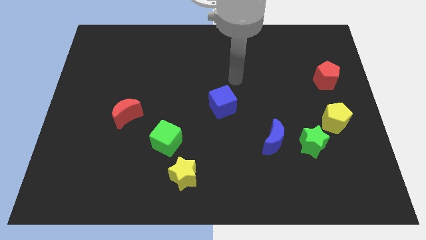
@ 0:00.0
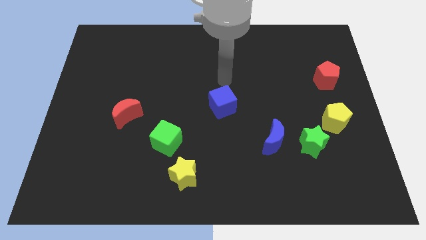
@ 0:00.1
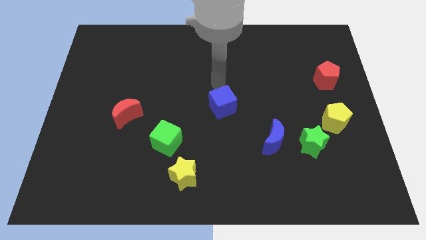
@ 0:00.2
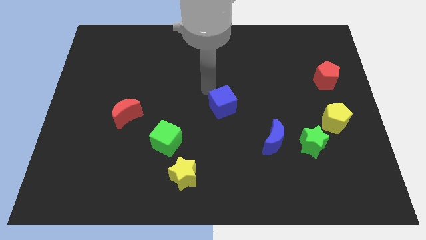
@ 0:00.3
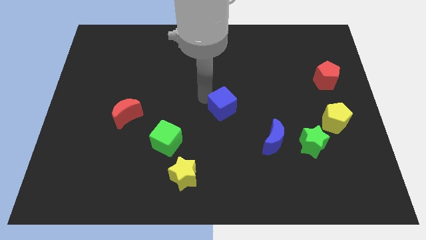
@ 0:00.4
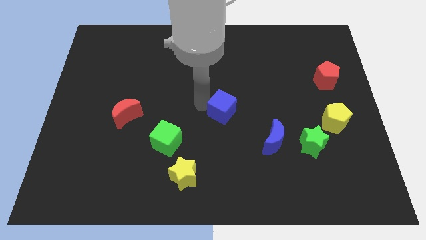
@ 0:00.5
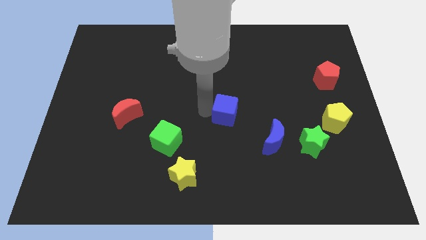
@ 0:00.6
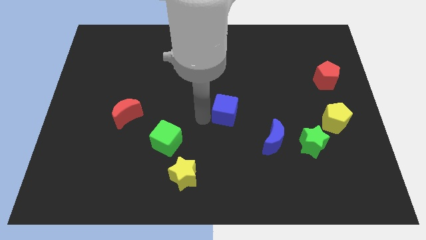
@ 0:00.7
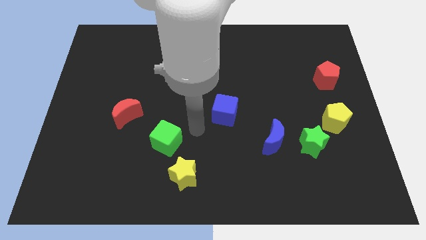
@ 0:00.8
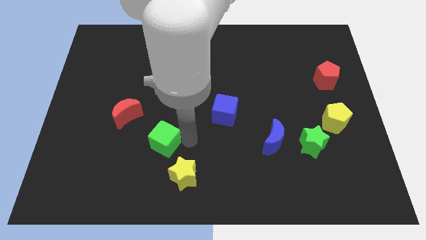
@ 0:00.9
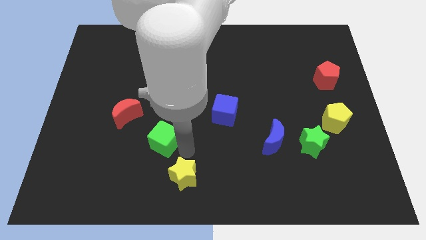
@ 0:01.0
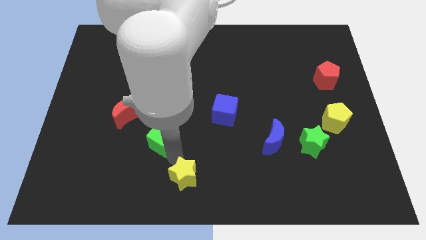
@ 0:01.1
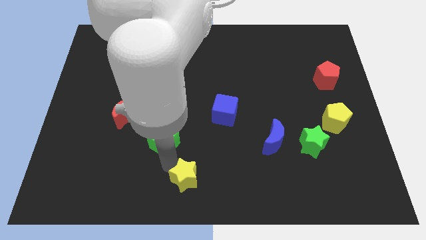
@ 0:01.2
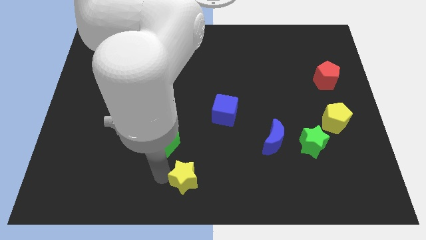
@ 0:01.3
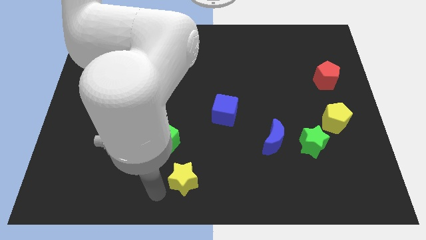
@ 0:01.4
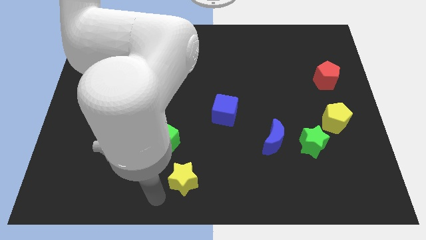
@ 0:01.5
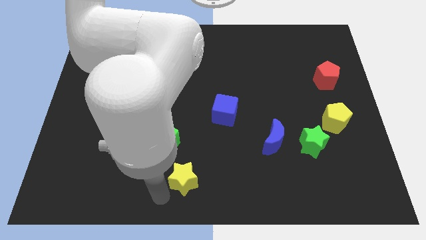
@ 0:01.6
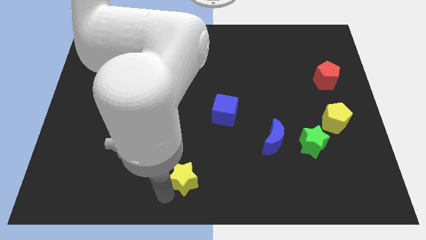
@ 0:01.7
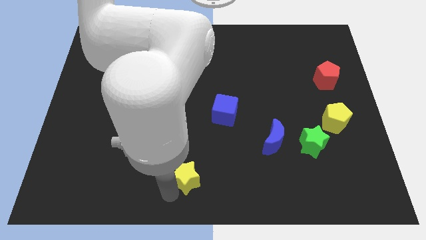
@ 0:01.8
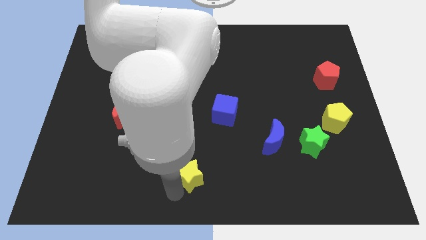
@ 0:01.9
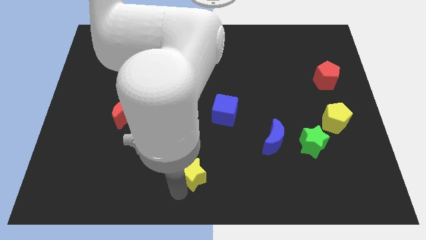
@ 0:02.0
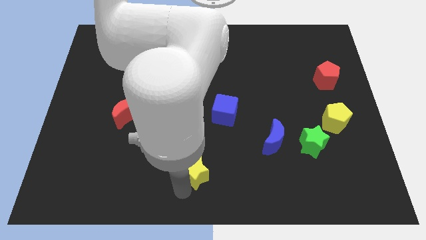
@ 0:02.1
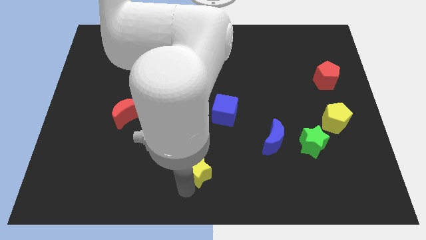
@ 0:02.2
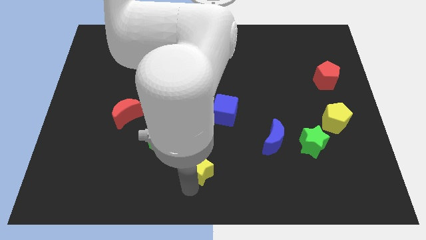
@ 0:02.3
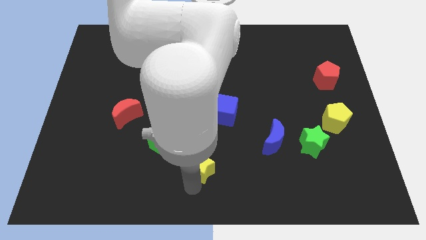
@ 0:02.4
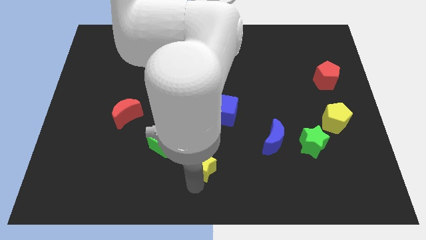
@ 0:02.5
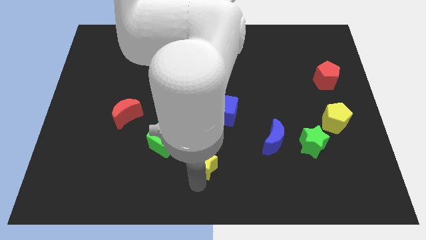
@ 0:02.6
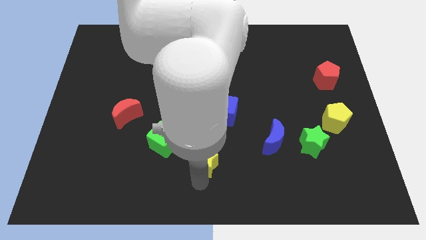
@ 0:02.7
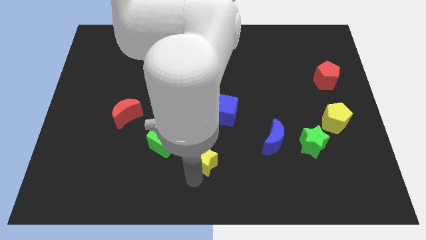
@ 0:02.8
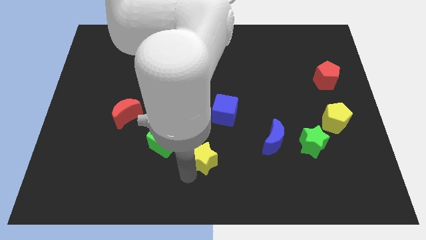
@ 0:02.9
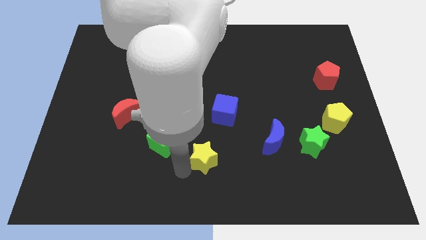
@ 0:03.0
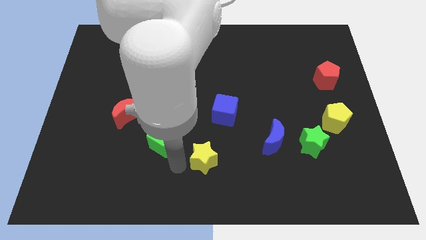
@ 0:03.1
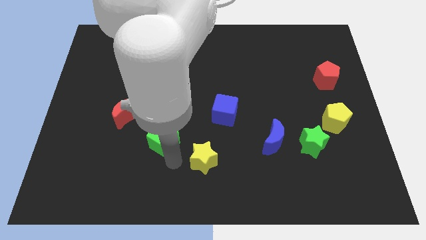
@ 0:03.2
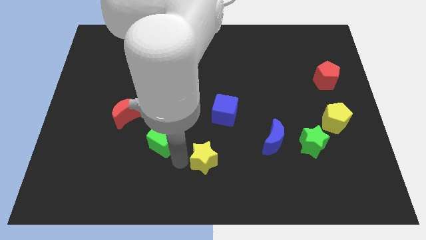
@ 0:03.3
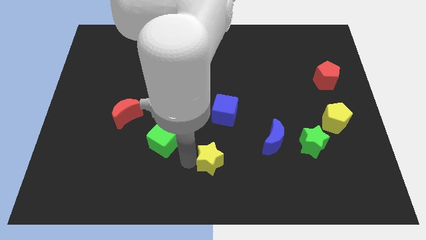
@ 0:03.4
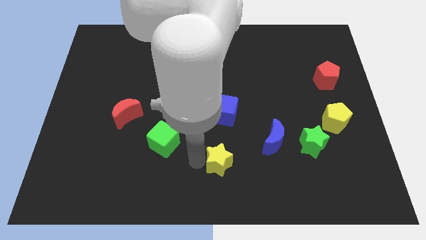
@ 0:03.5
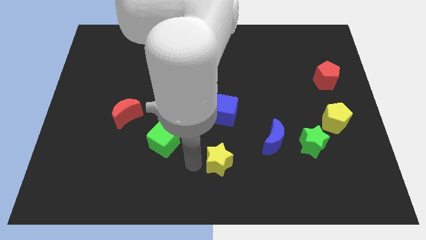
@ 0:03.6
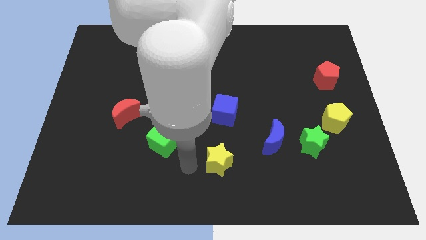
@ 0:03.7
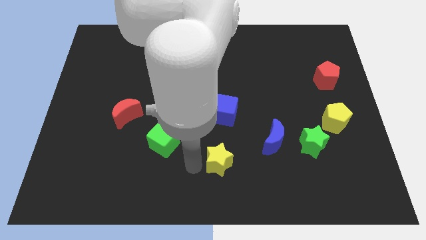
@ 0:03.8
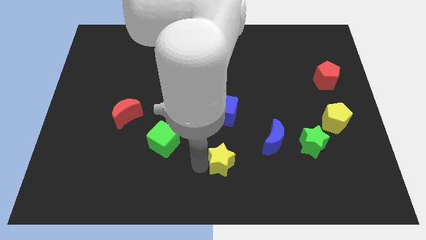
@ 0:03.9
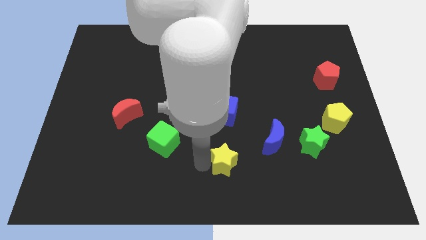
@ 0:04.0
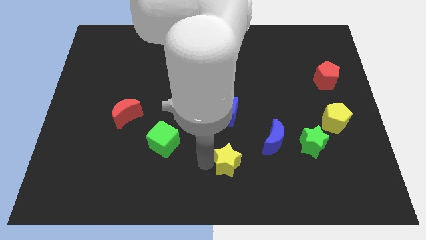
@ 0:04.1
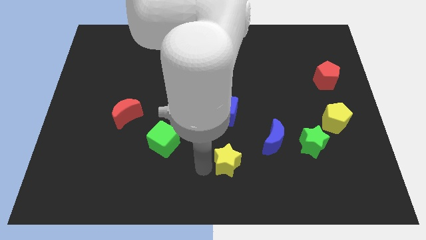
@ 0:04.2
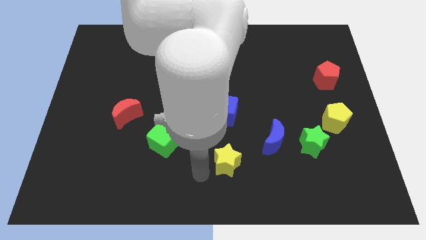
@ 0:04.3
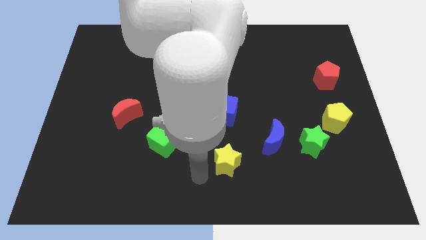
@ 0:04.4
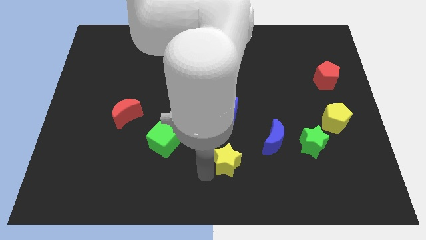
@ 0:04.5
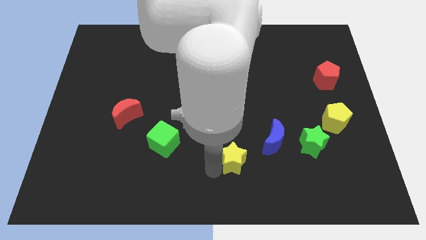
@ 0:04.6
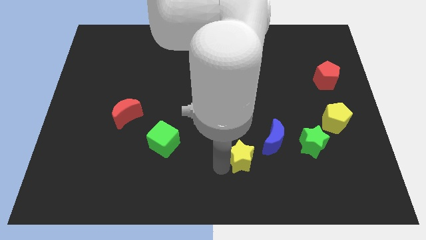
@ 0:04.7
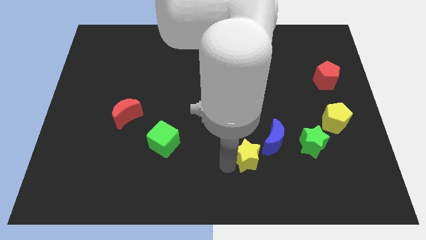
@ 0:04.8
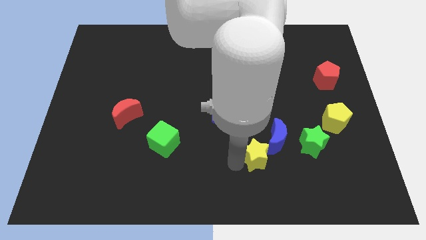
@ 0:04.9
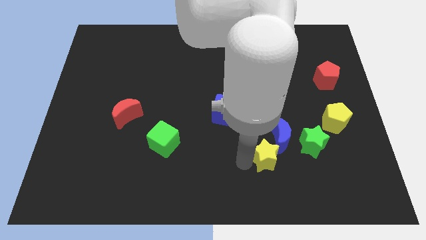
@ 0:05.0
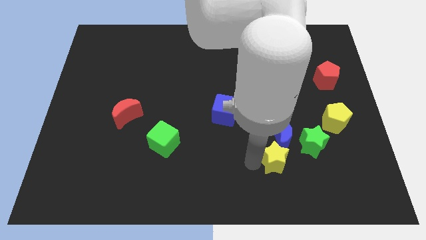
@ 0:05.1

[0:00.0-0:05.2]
slide the yellow star towards the blue moon

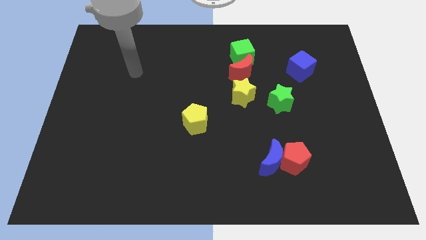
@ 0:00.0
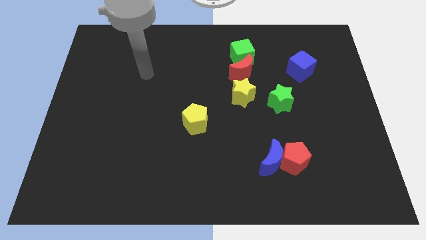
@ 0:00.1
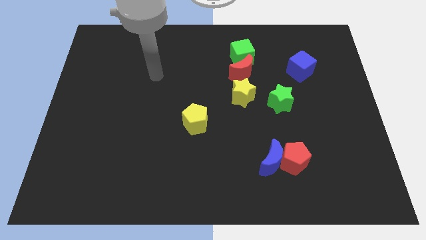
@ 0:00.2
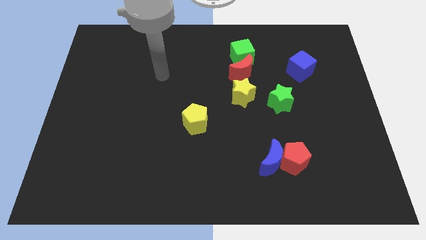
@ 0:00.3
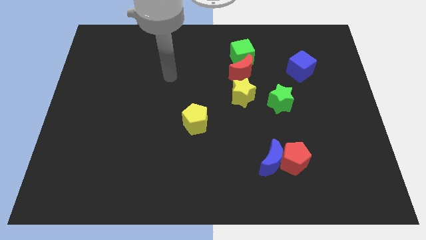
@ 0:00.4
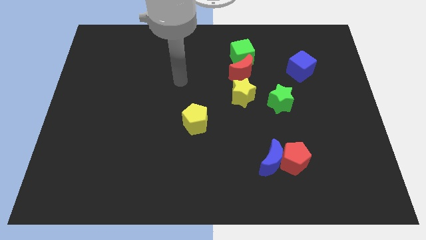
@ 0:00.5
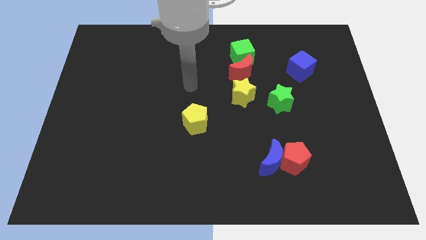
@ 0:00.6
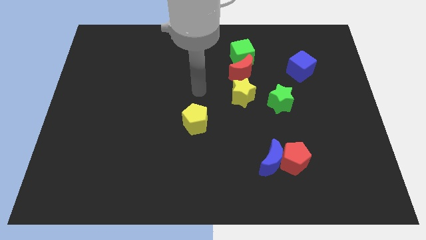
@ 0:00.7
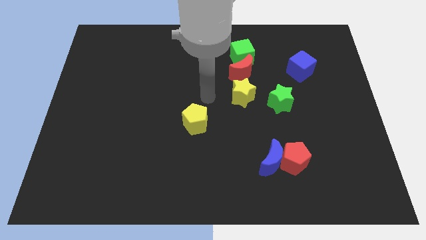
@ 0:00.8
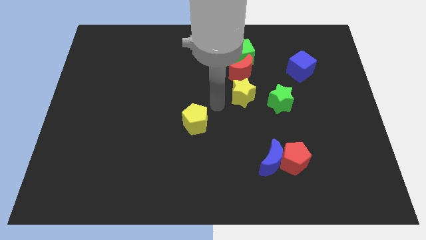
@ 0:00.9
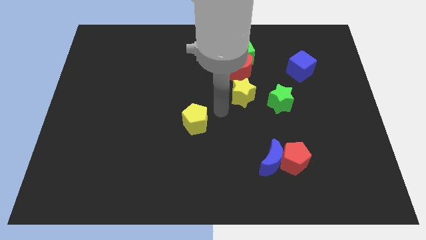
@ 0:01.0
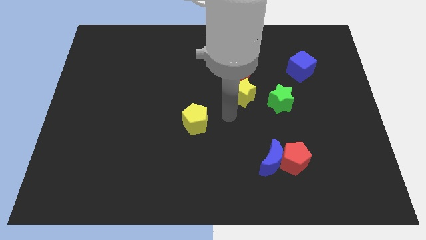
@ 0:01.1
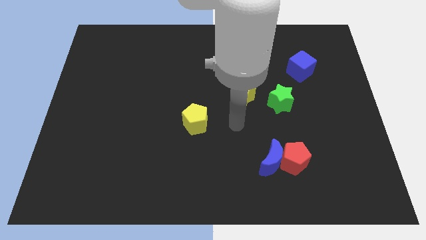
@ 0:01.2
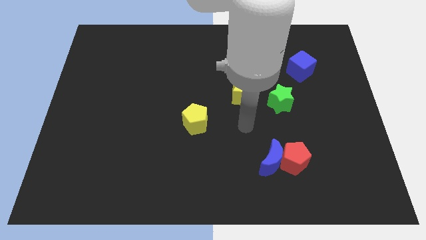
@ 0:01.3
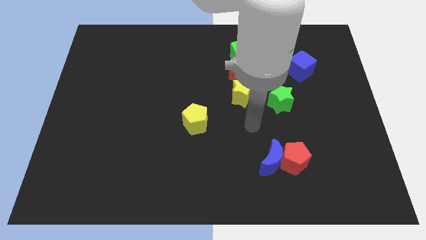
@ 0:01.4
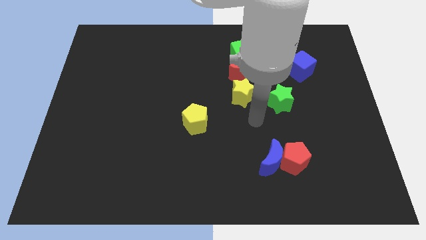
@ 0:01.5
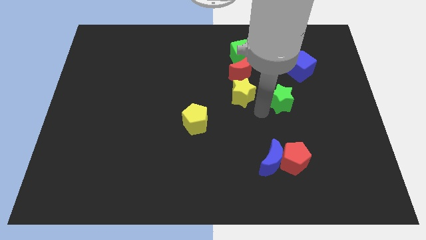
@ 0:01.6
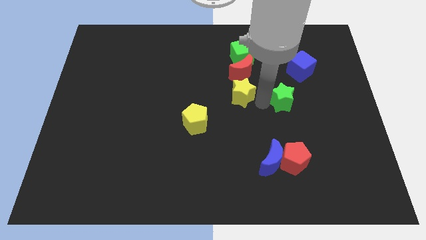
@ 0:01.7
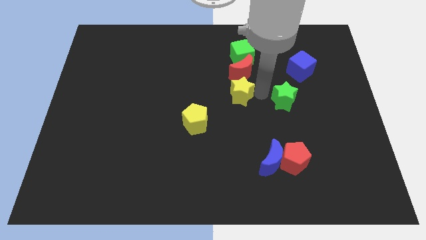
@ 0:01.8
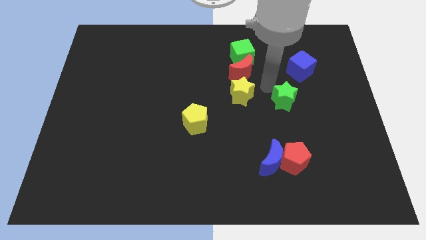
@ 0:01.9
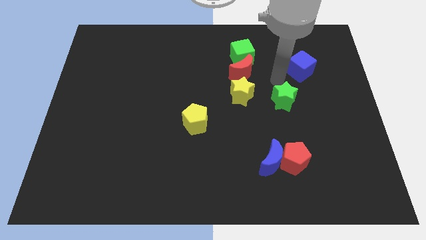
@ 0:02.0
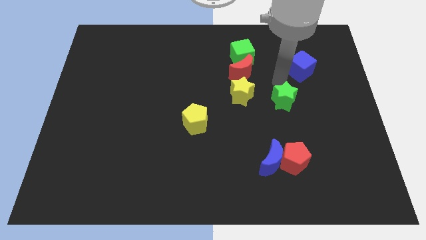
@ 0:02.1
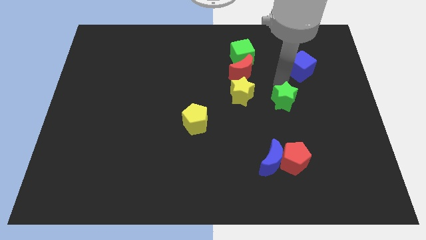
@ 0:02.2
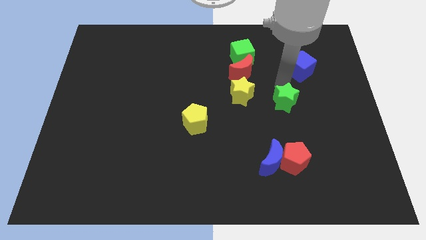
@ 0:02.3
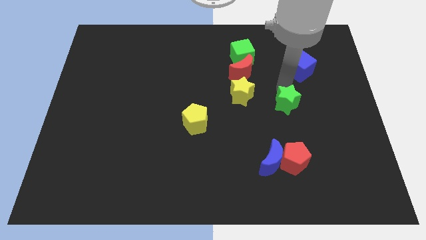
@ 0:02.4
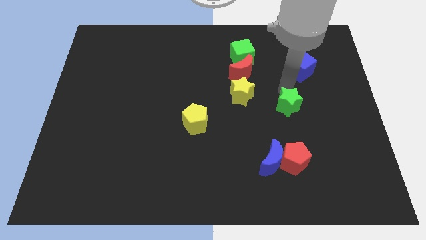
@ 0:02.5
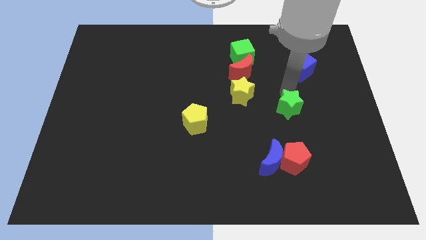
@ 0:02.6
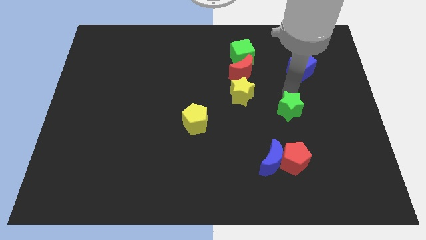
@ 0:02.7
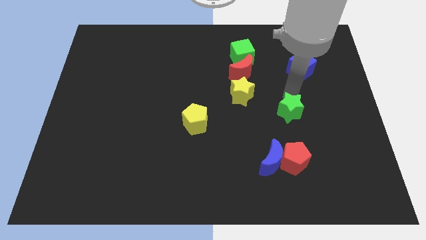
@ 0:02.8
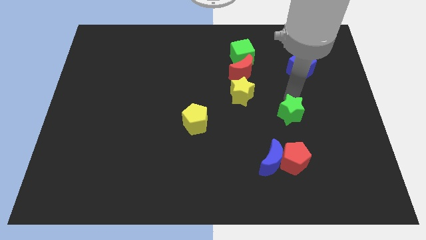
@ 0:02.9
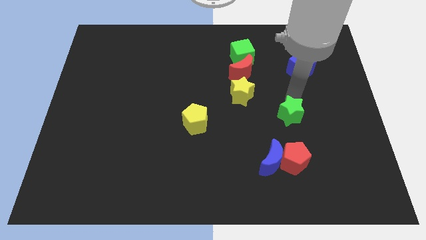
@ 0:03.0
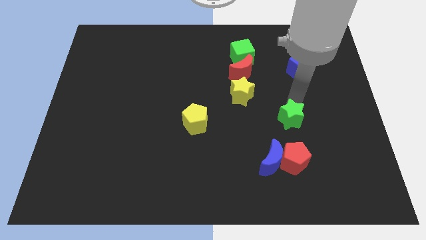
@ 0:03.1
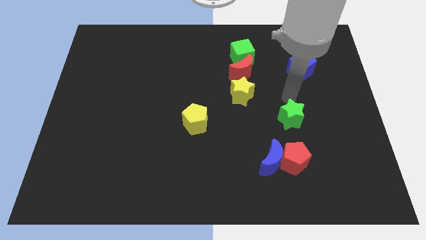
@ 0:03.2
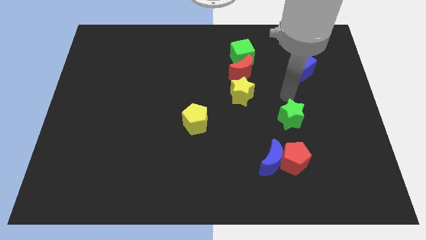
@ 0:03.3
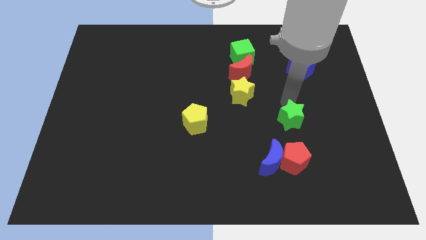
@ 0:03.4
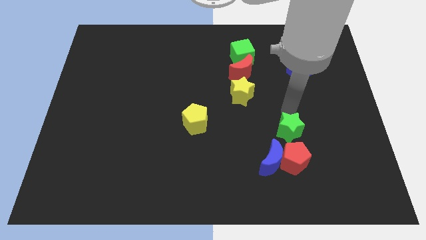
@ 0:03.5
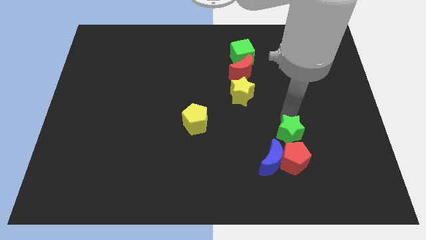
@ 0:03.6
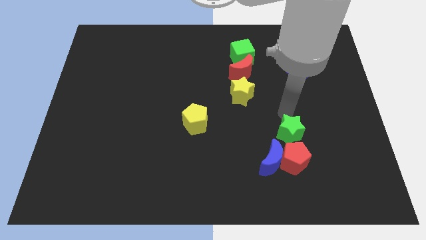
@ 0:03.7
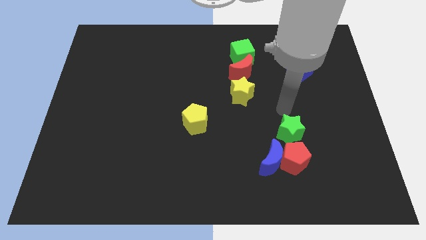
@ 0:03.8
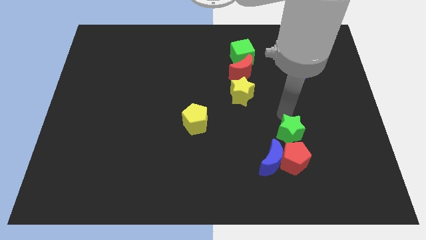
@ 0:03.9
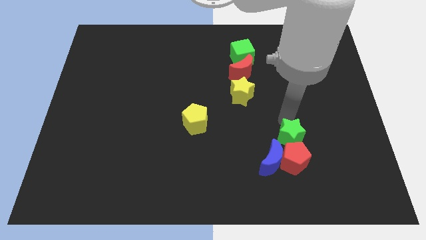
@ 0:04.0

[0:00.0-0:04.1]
slide the green star towards the red pentagon
